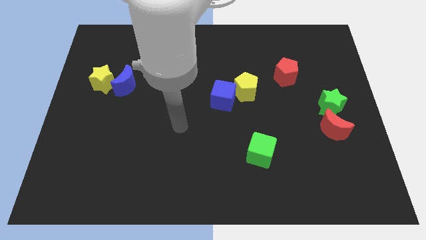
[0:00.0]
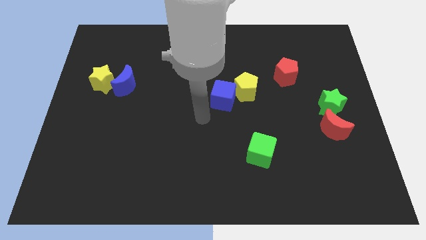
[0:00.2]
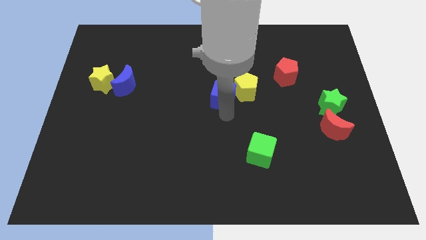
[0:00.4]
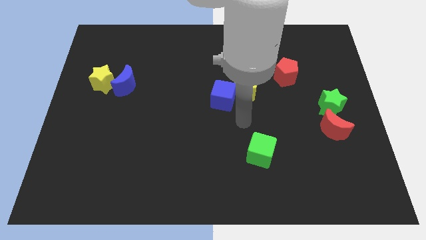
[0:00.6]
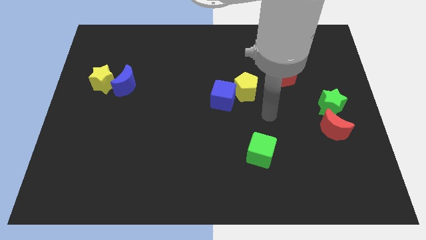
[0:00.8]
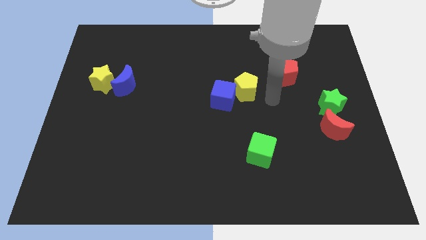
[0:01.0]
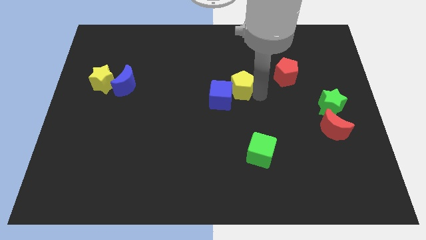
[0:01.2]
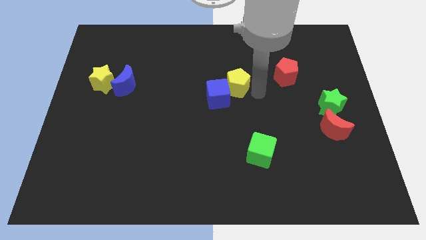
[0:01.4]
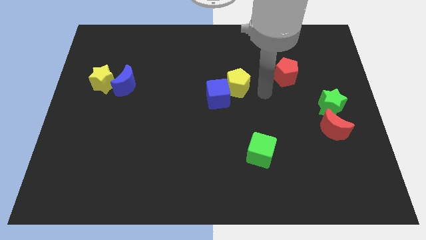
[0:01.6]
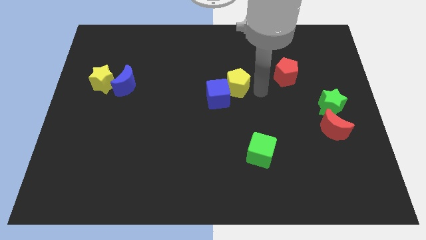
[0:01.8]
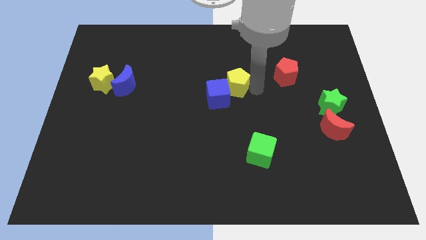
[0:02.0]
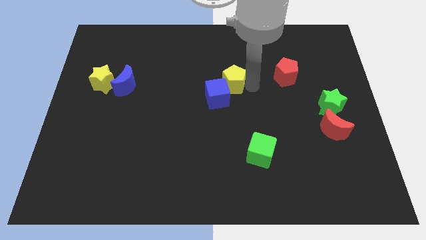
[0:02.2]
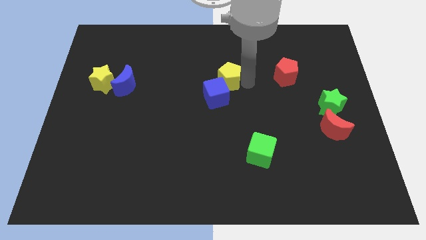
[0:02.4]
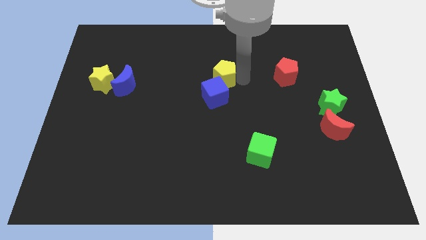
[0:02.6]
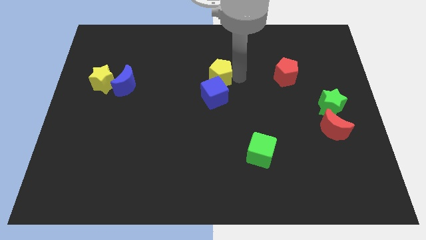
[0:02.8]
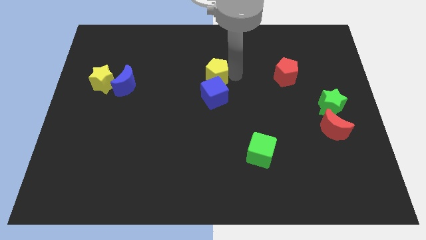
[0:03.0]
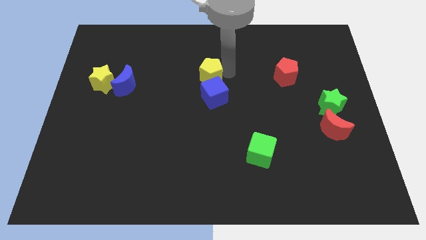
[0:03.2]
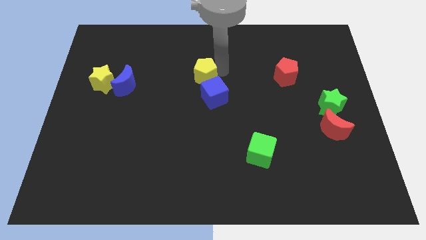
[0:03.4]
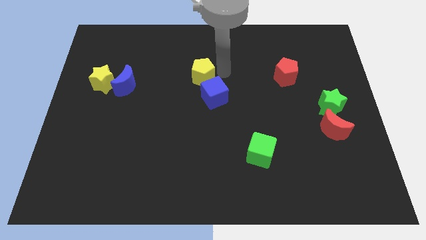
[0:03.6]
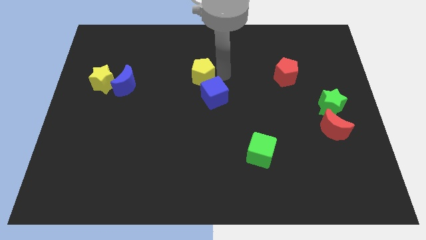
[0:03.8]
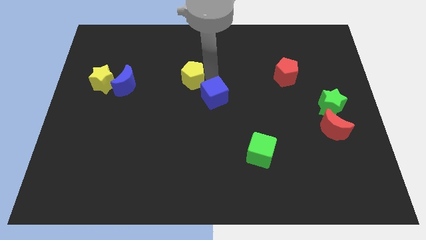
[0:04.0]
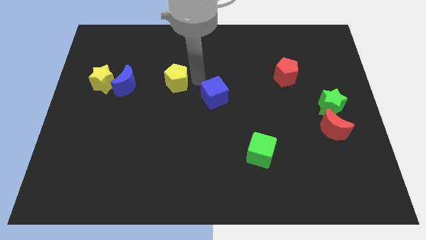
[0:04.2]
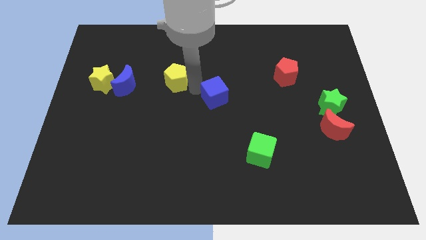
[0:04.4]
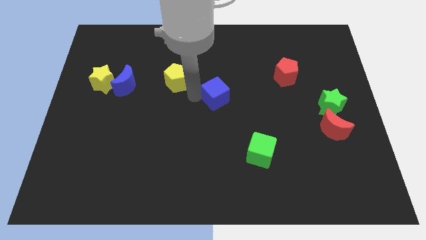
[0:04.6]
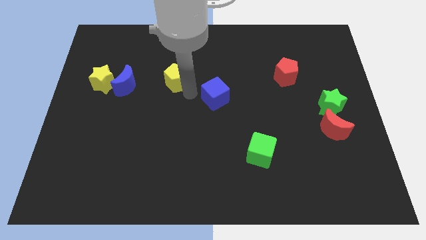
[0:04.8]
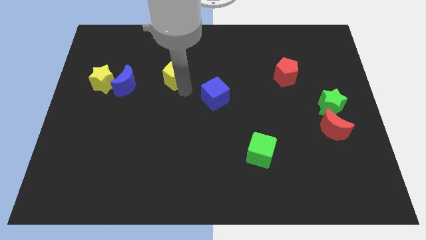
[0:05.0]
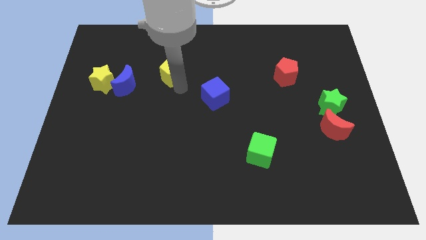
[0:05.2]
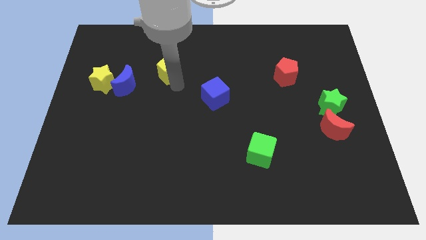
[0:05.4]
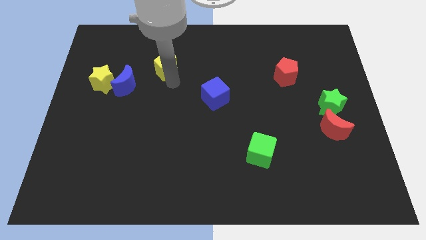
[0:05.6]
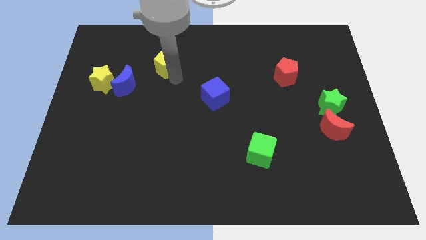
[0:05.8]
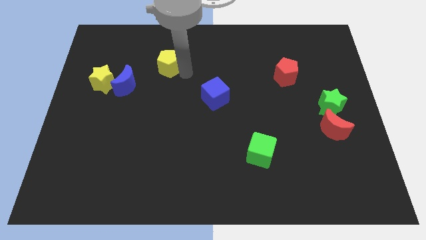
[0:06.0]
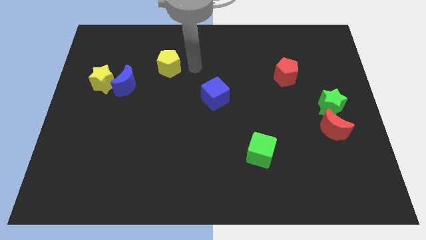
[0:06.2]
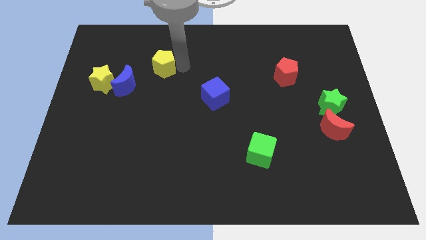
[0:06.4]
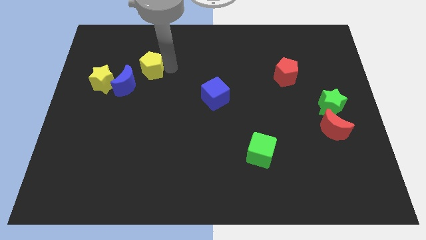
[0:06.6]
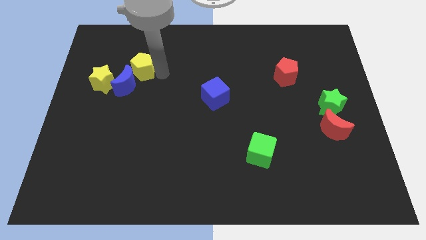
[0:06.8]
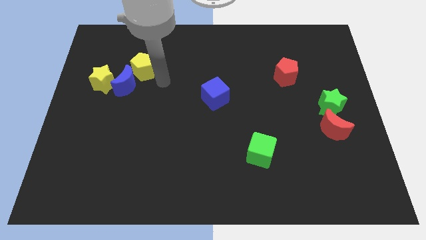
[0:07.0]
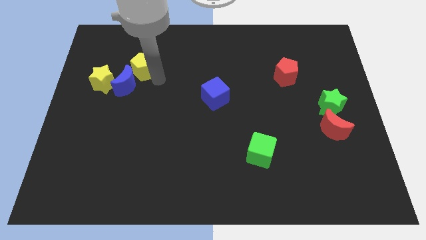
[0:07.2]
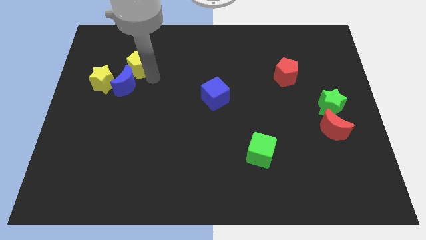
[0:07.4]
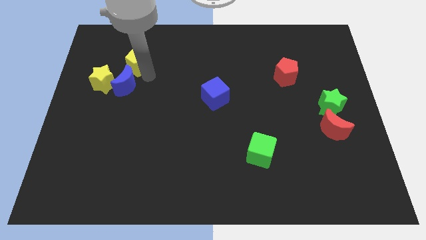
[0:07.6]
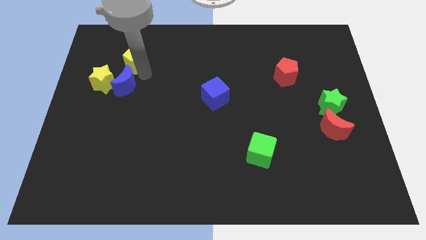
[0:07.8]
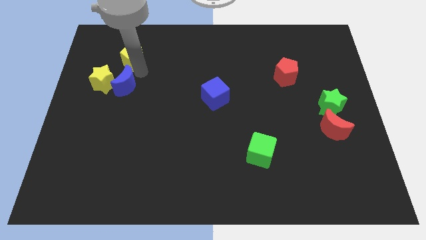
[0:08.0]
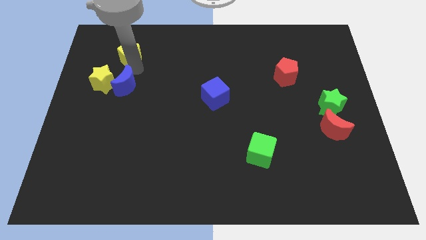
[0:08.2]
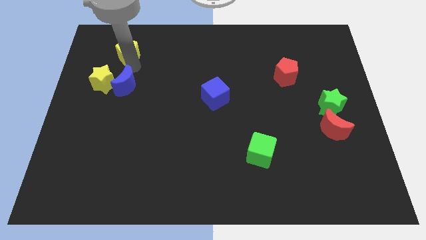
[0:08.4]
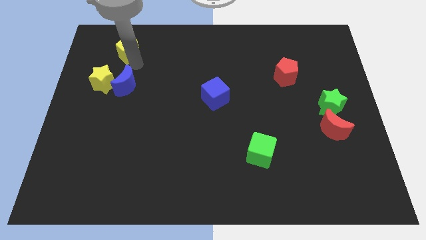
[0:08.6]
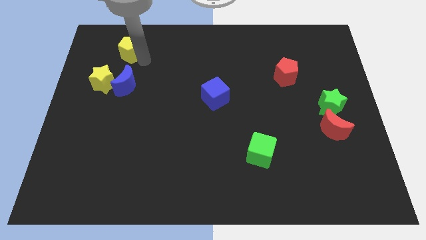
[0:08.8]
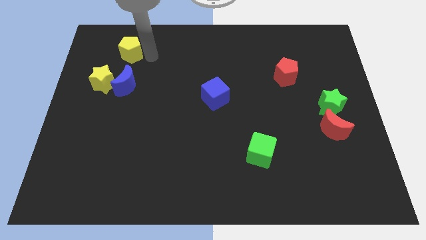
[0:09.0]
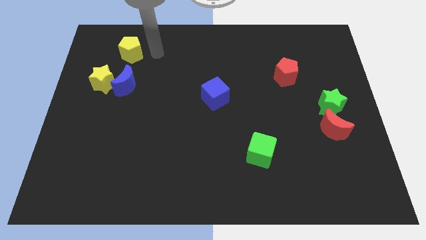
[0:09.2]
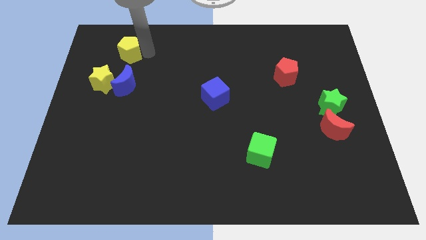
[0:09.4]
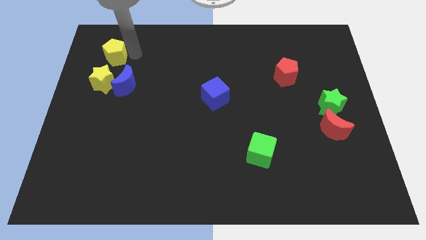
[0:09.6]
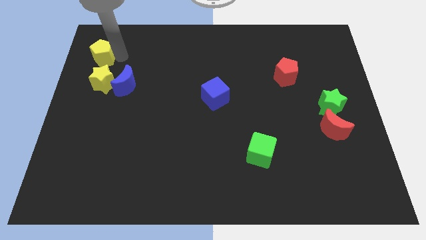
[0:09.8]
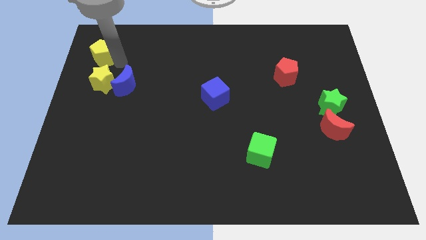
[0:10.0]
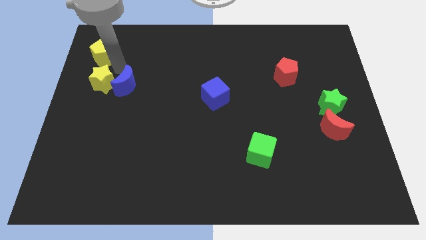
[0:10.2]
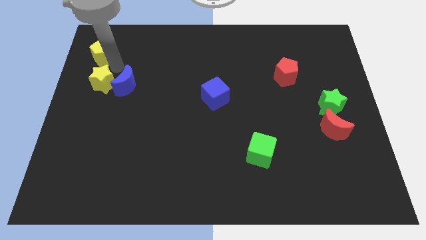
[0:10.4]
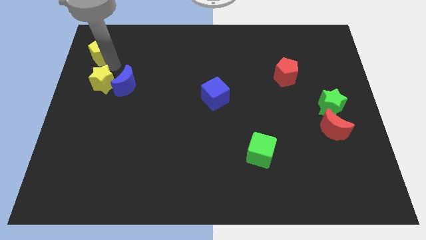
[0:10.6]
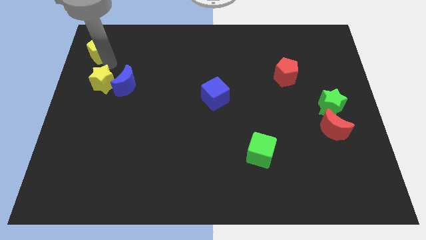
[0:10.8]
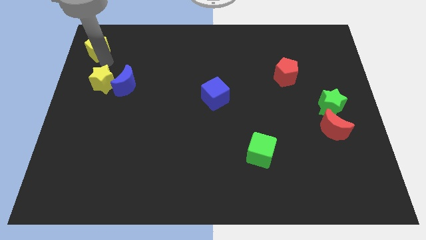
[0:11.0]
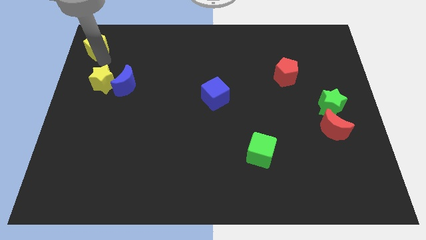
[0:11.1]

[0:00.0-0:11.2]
put the yellow pentagon to the top left of the board

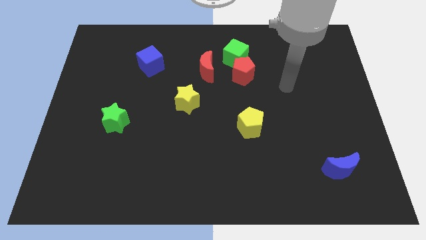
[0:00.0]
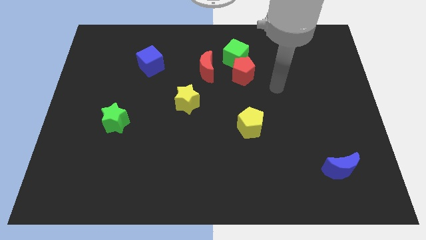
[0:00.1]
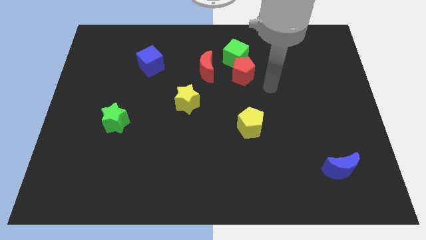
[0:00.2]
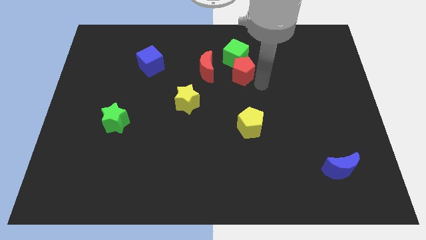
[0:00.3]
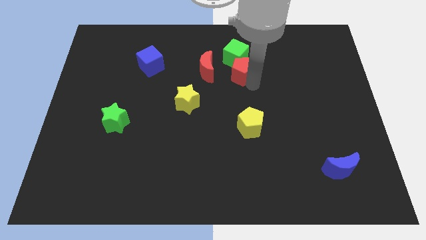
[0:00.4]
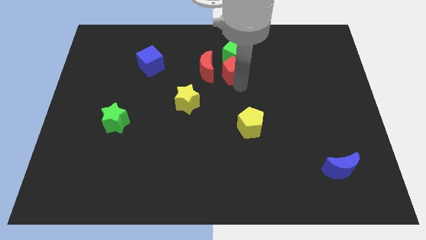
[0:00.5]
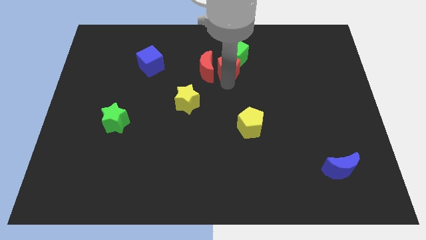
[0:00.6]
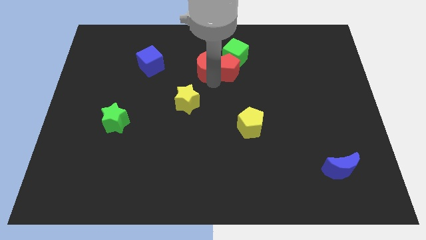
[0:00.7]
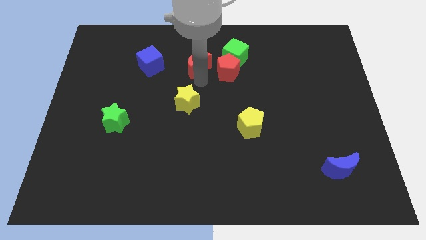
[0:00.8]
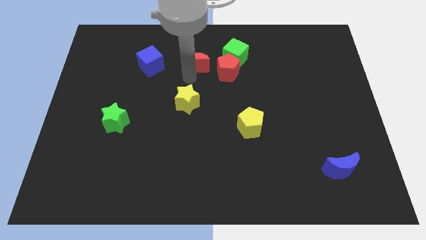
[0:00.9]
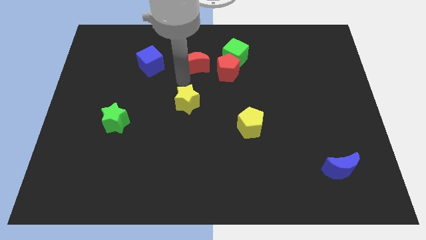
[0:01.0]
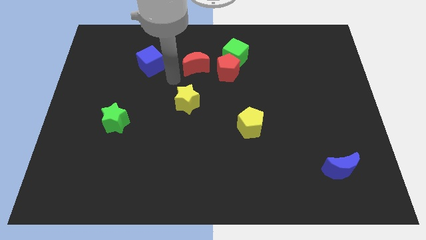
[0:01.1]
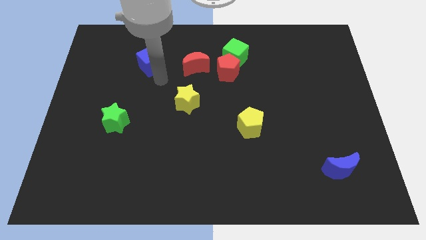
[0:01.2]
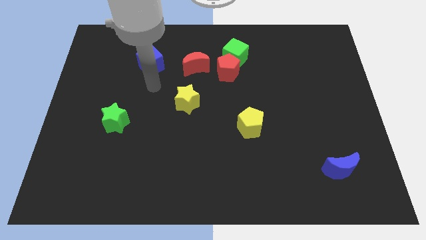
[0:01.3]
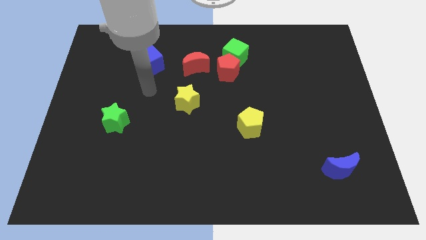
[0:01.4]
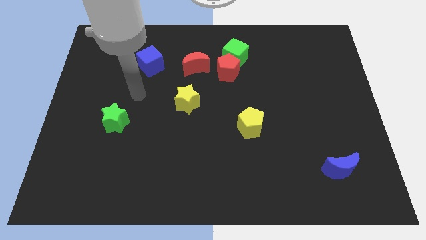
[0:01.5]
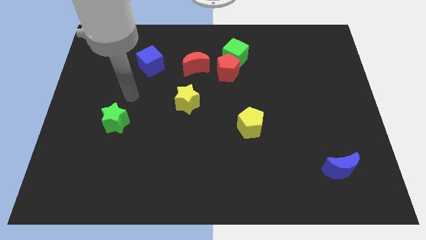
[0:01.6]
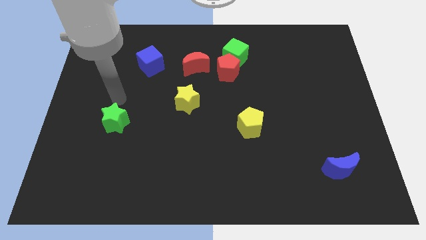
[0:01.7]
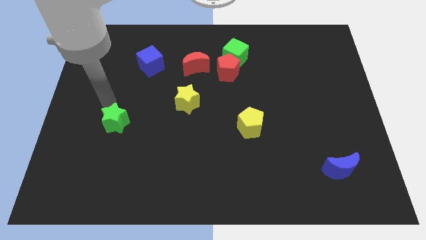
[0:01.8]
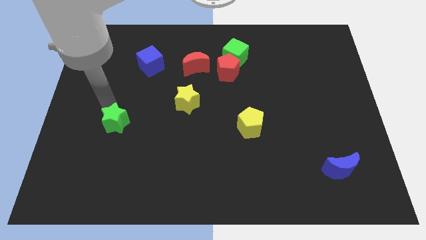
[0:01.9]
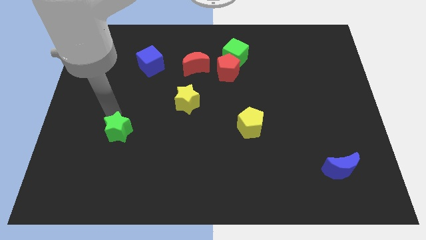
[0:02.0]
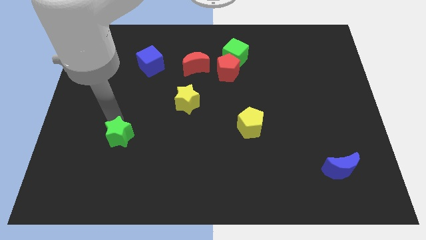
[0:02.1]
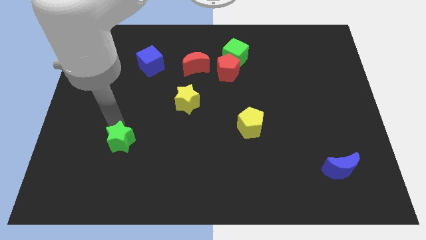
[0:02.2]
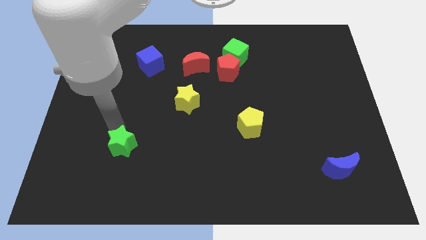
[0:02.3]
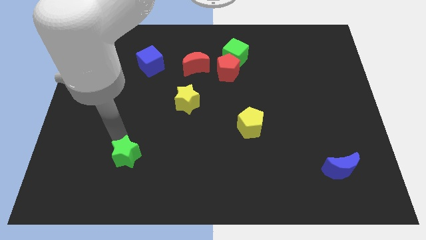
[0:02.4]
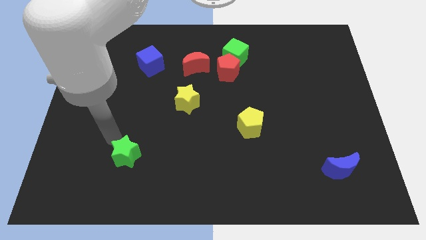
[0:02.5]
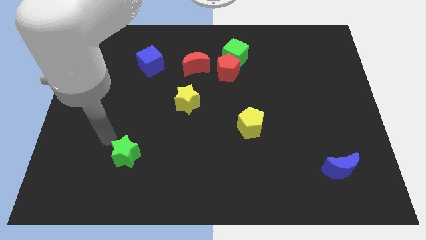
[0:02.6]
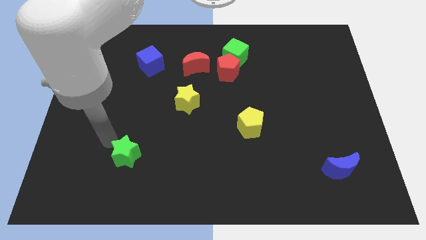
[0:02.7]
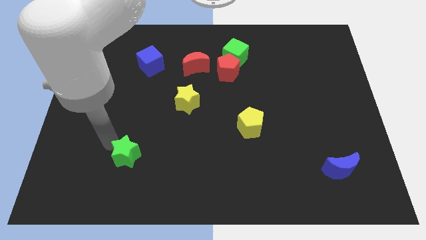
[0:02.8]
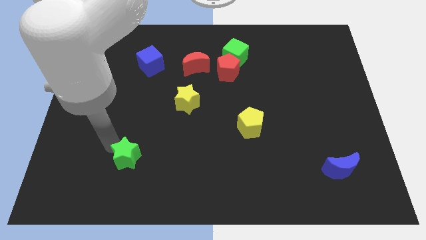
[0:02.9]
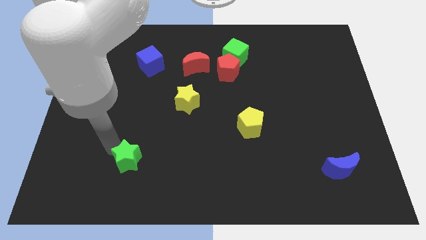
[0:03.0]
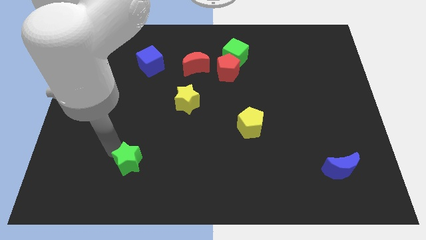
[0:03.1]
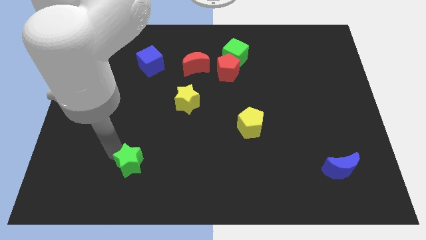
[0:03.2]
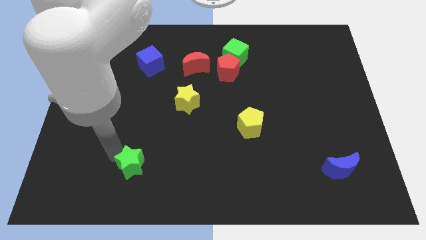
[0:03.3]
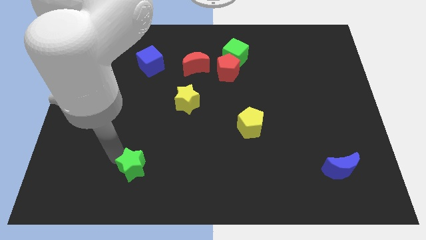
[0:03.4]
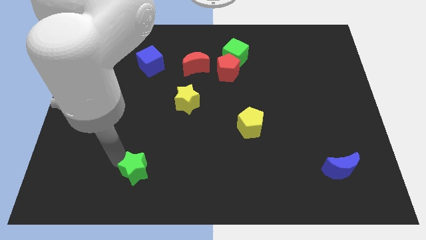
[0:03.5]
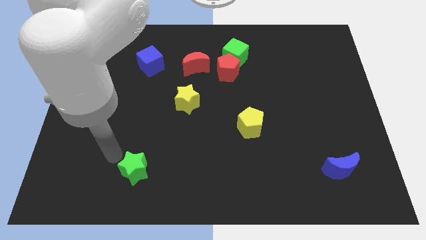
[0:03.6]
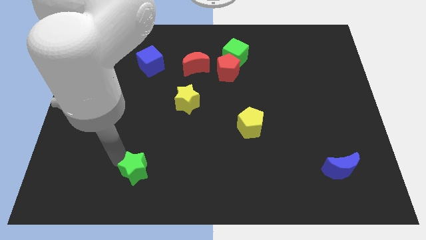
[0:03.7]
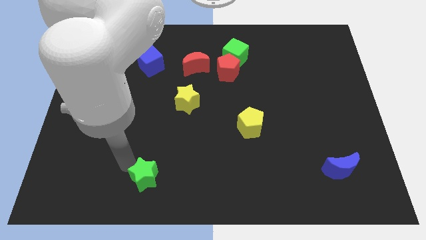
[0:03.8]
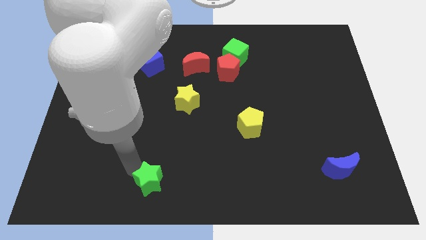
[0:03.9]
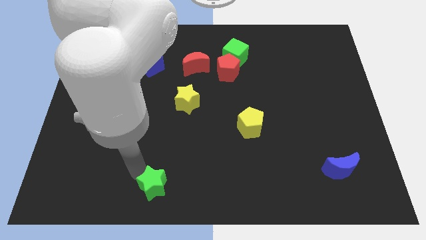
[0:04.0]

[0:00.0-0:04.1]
put the green star to the bottom
